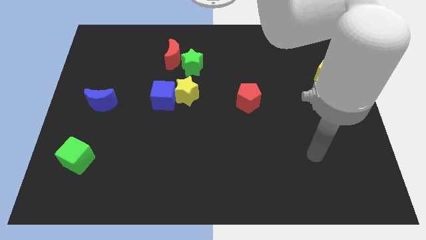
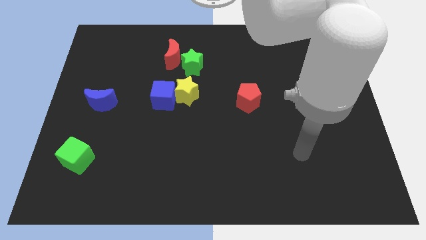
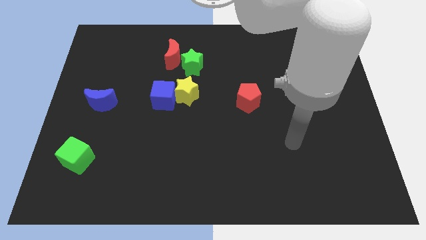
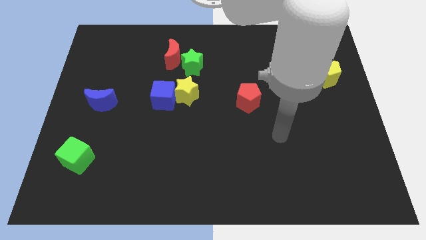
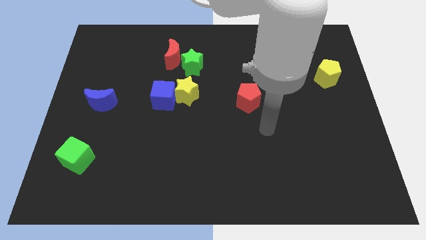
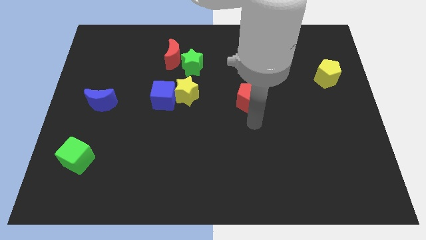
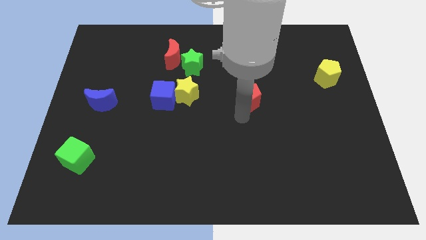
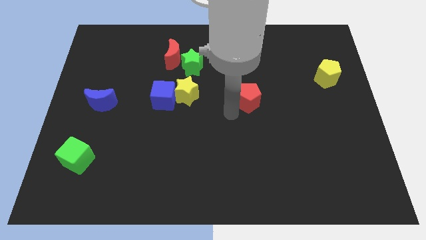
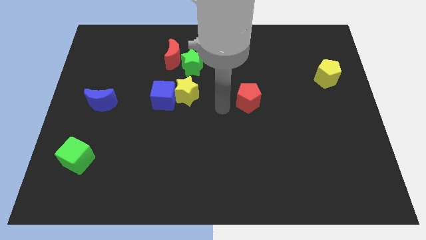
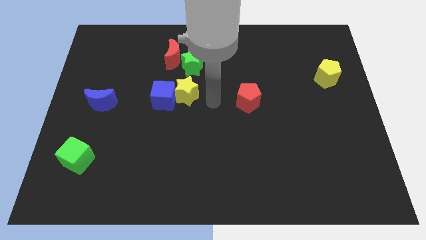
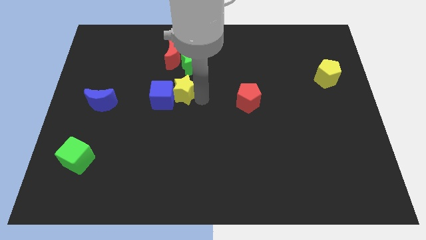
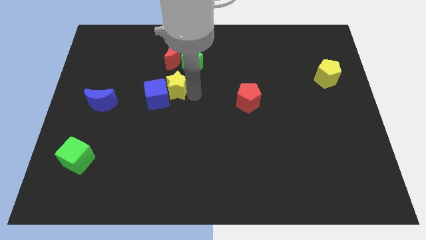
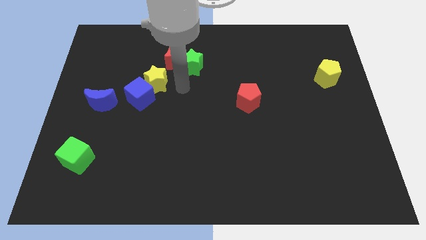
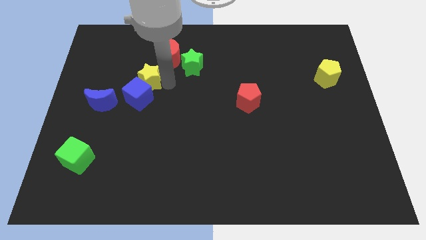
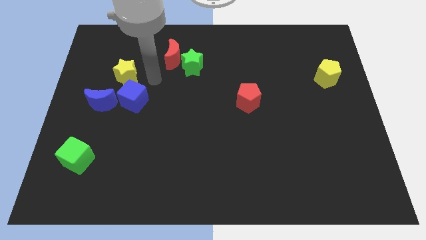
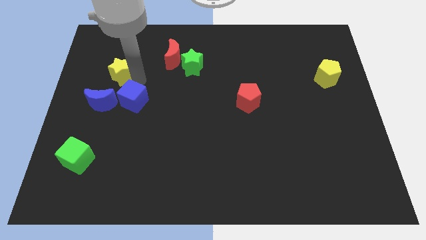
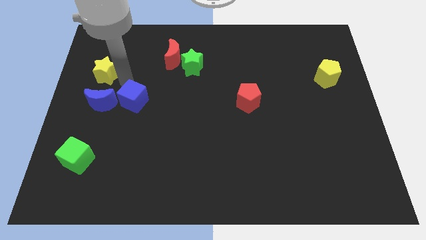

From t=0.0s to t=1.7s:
move the blue cube away from the yellow star

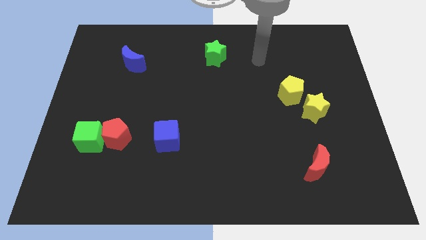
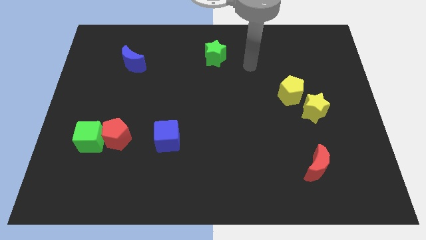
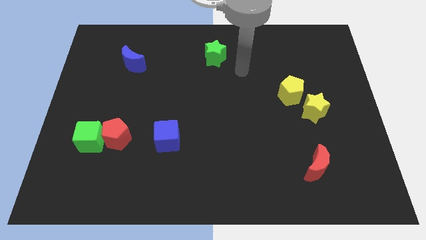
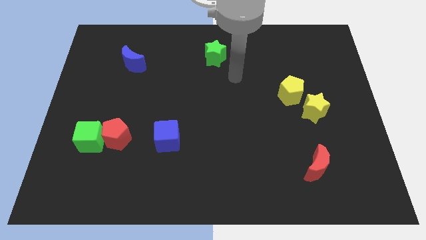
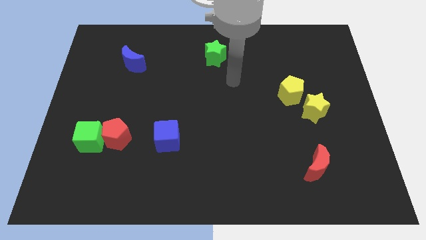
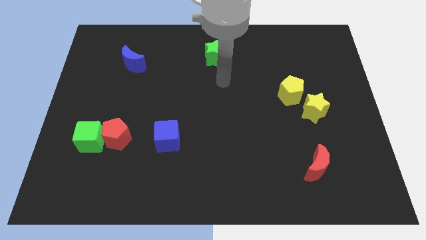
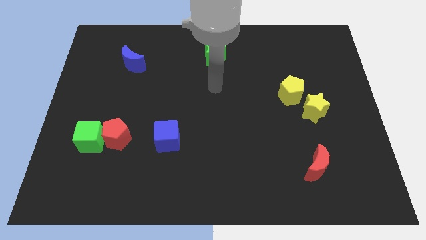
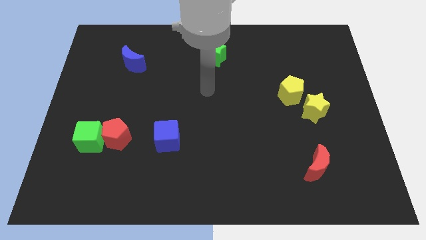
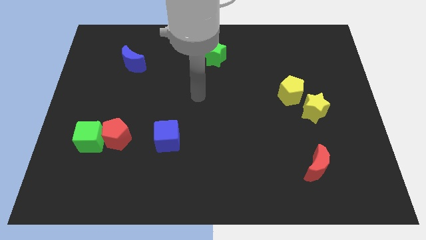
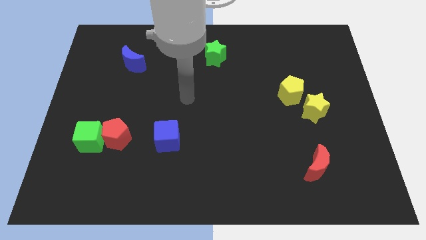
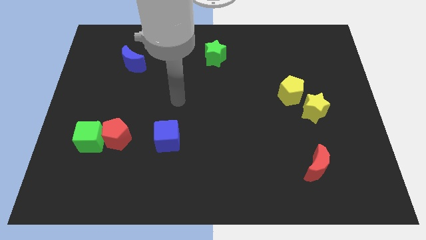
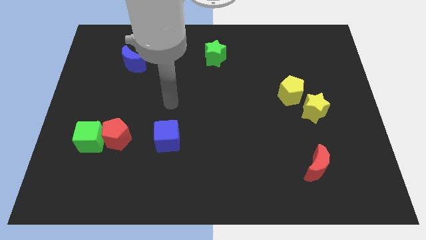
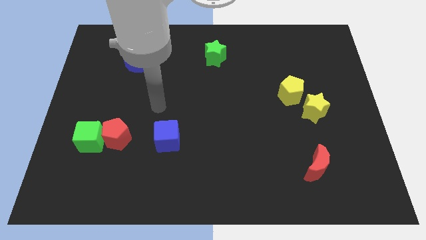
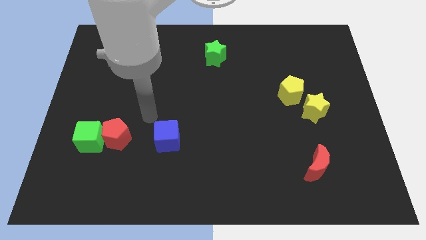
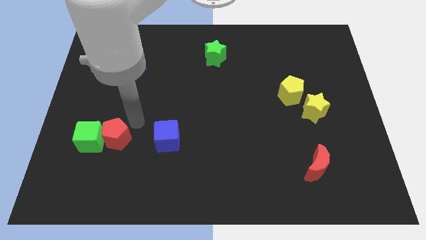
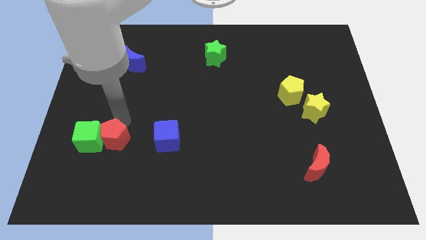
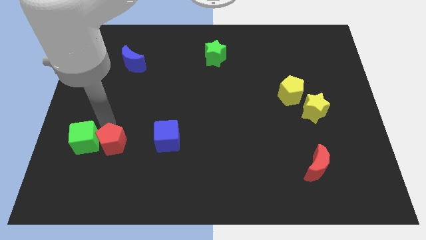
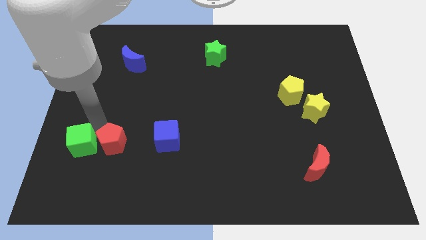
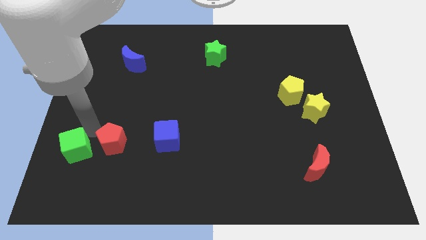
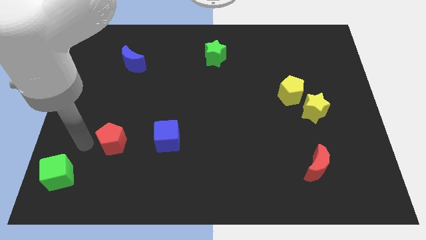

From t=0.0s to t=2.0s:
pull the red pentagon apart from the green cube

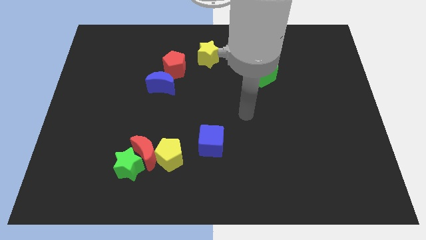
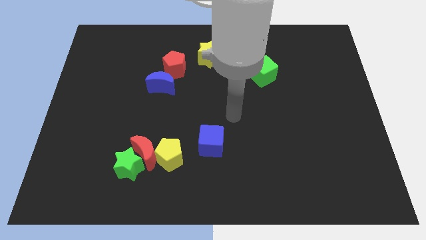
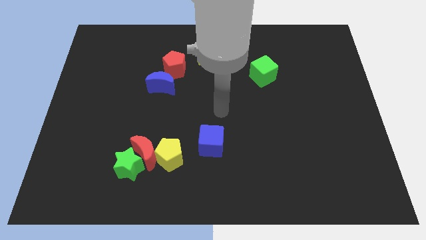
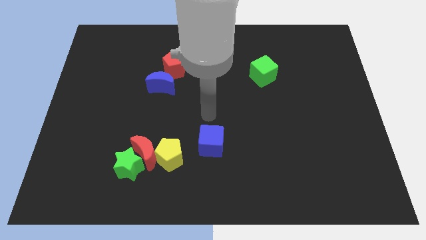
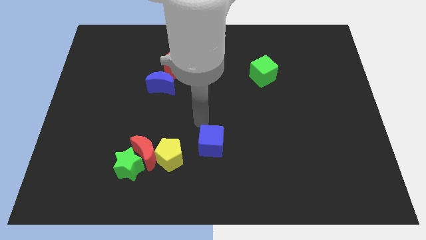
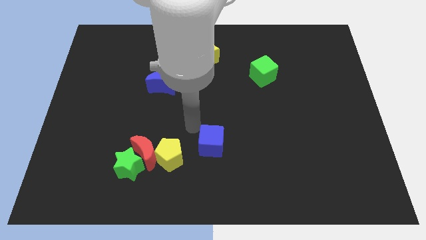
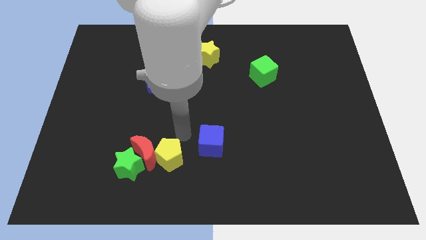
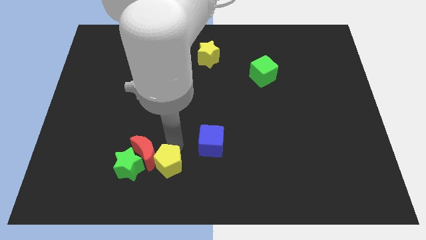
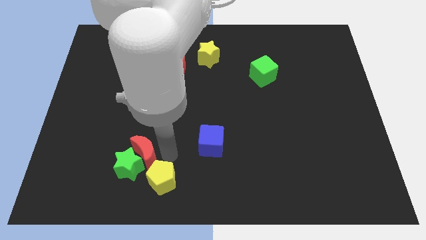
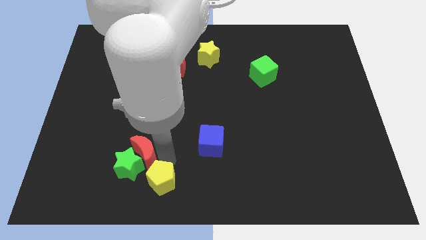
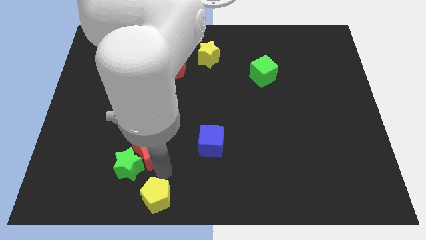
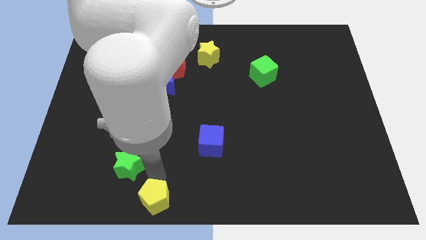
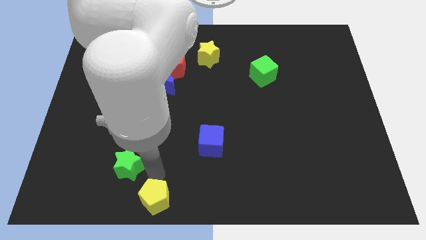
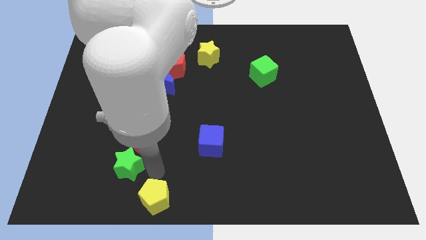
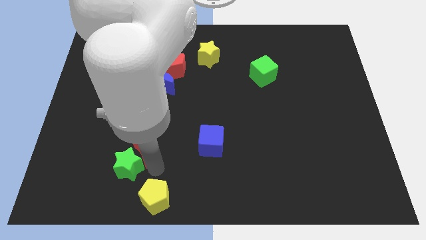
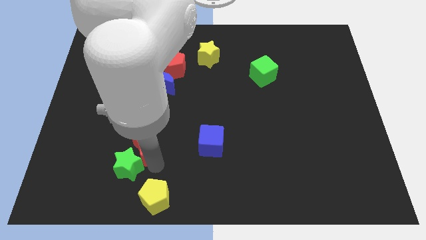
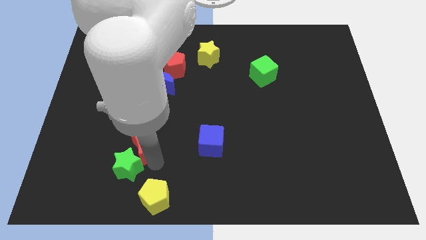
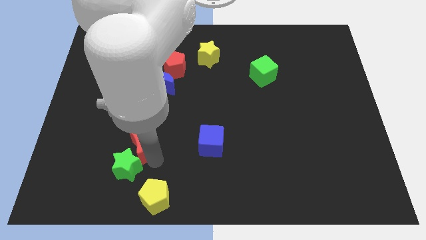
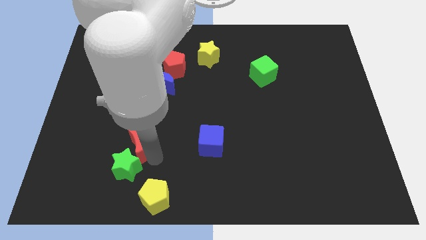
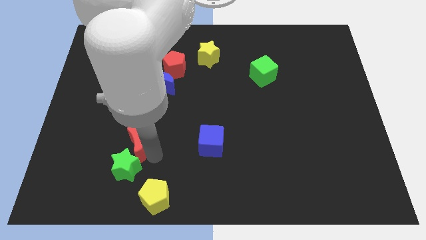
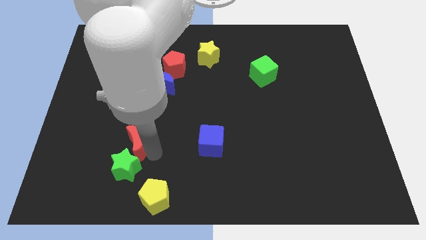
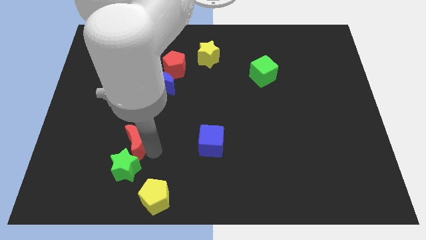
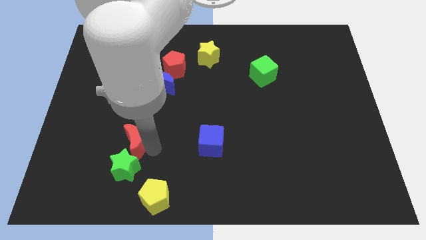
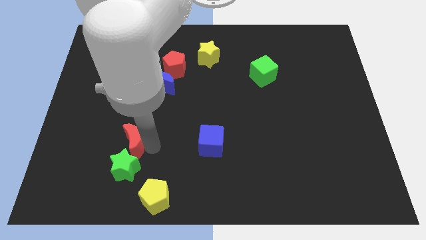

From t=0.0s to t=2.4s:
separate the red moon from the green star and yellow pentagon

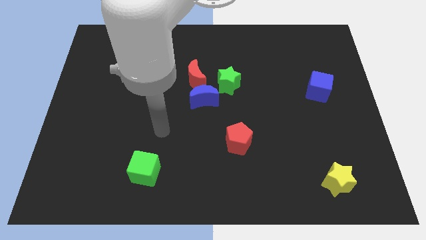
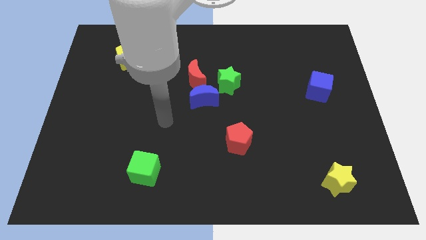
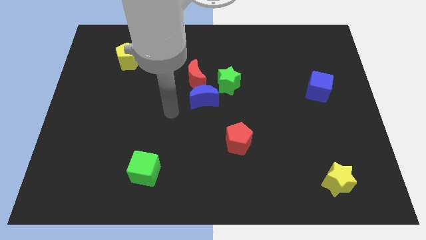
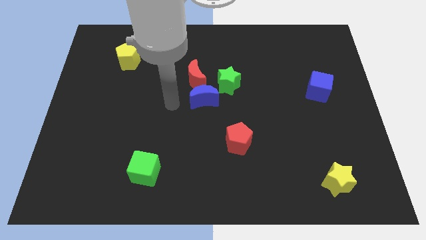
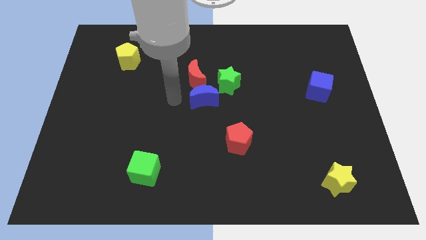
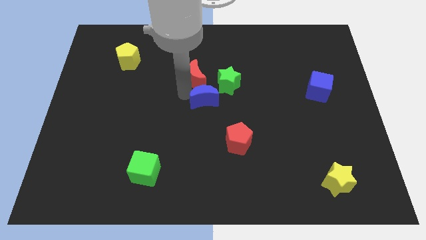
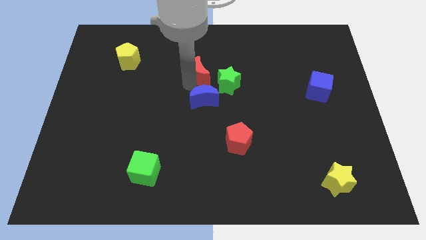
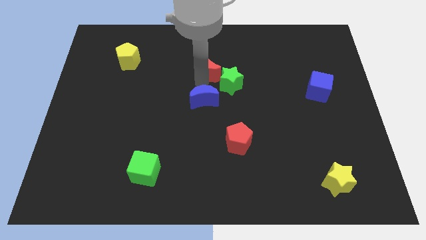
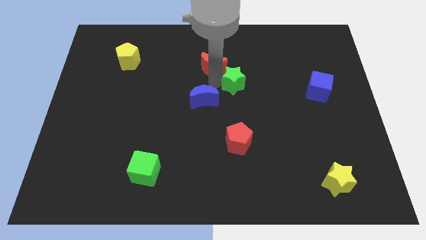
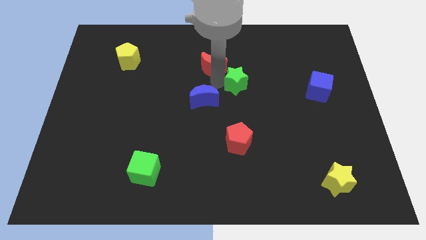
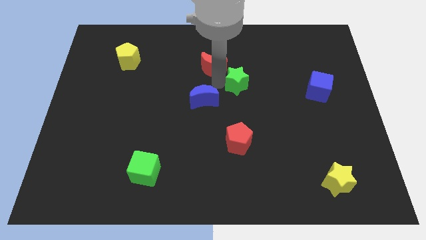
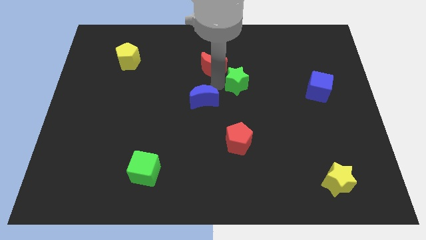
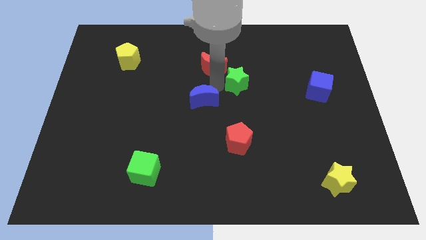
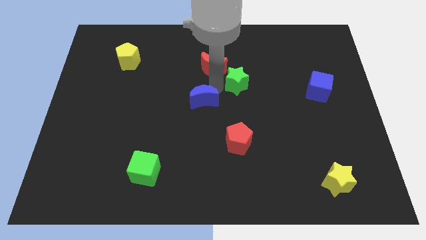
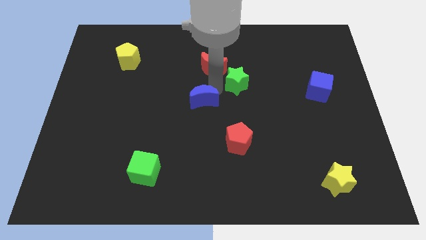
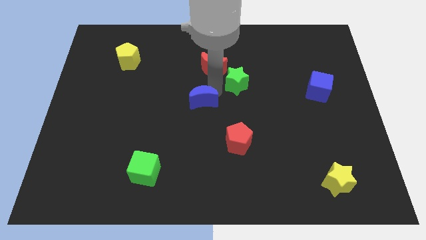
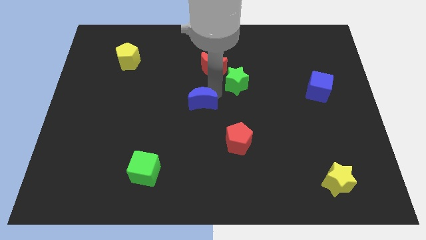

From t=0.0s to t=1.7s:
separate the blue moon from the red moon and green star

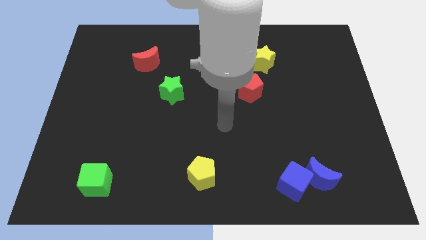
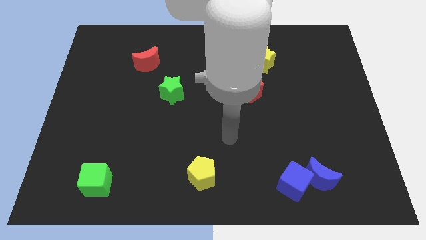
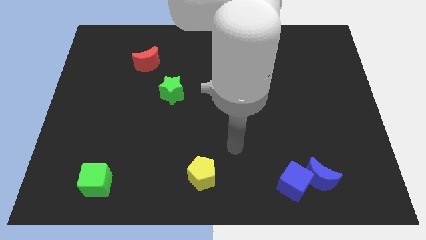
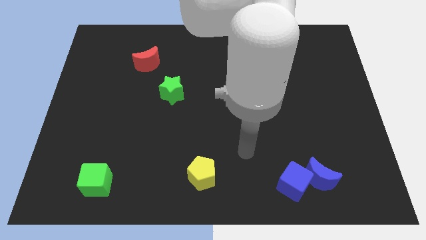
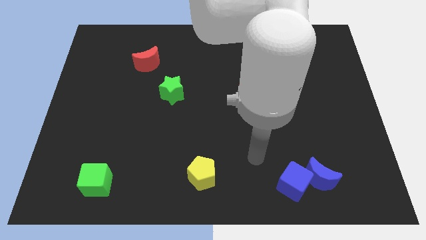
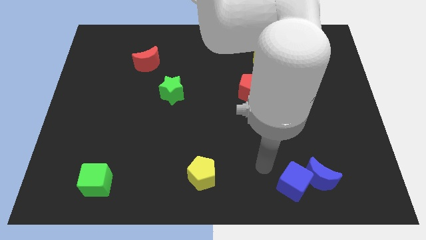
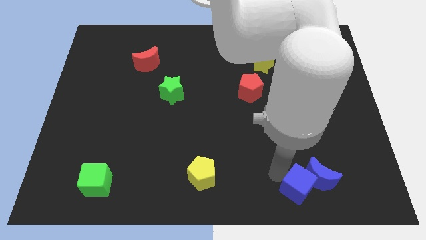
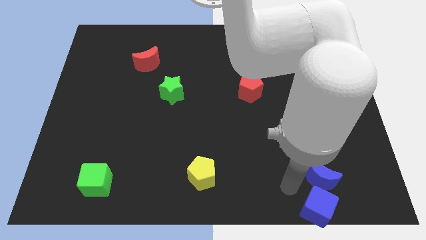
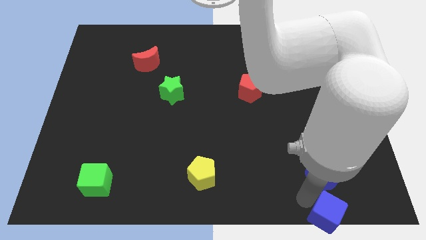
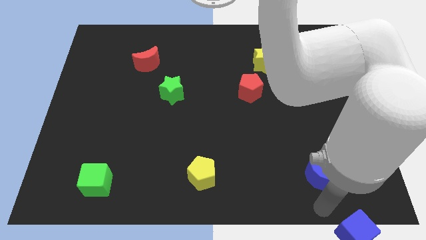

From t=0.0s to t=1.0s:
move the blue moon away from the blue cube

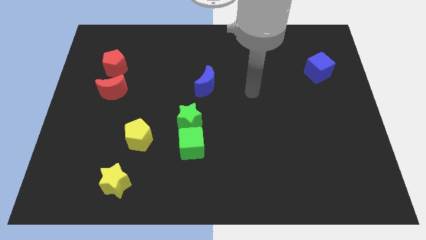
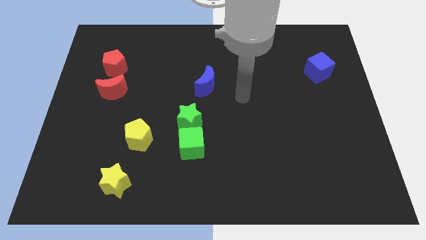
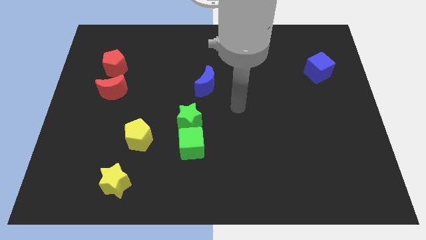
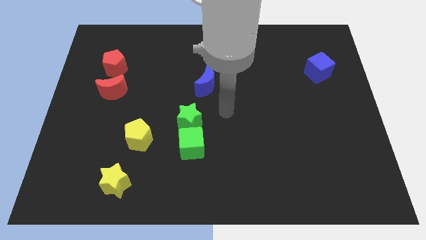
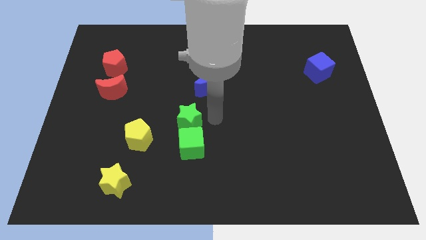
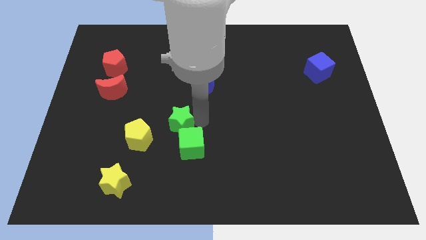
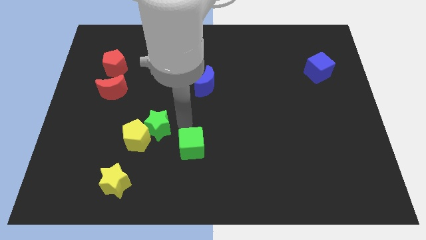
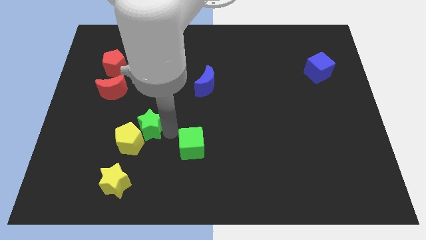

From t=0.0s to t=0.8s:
pull the green cube apart from the green star
